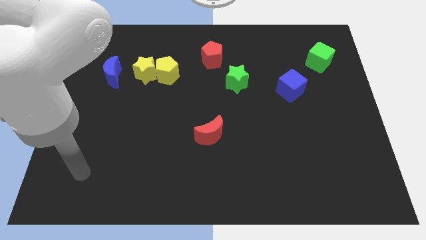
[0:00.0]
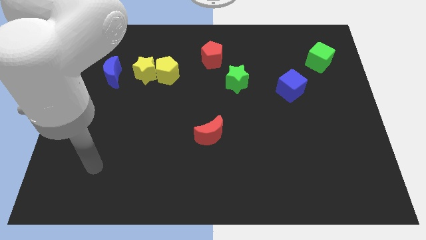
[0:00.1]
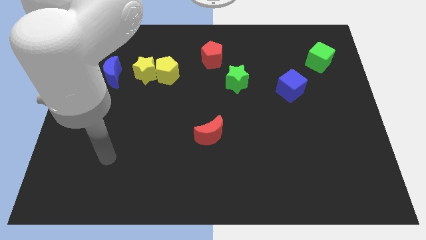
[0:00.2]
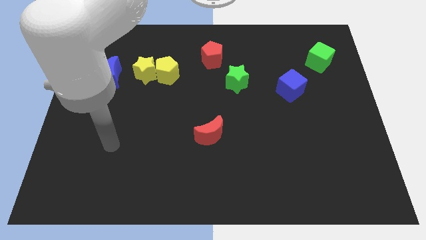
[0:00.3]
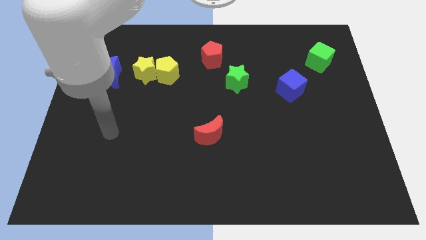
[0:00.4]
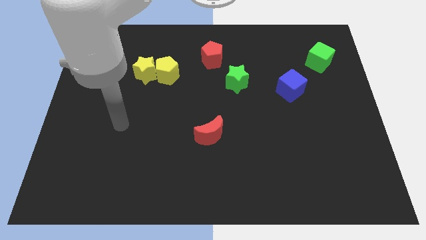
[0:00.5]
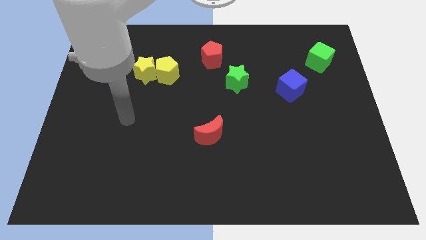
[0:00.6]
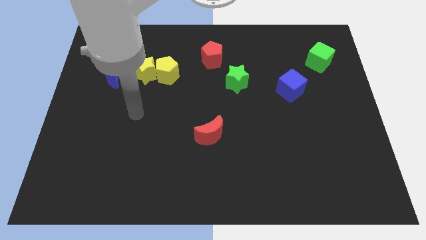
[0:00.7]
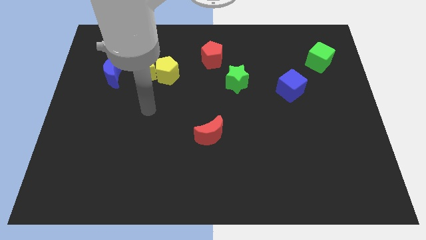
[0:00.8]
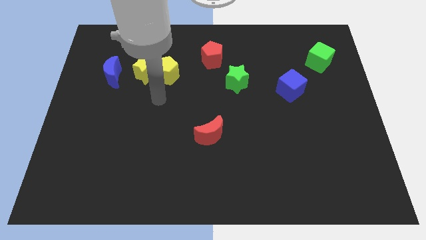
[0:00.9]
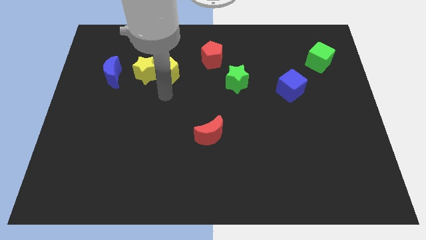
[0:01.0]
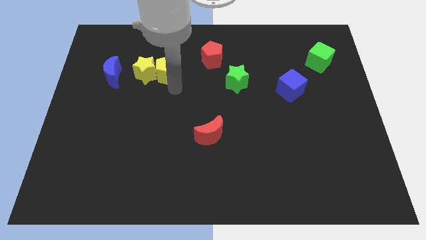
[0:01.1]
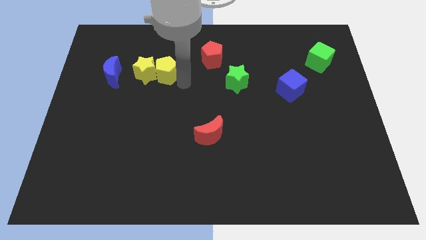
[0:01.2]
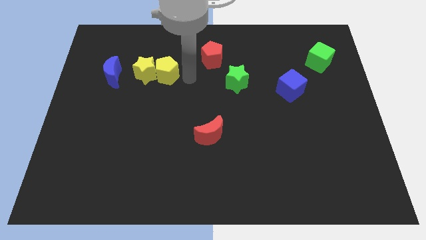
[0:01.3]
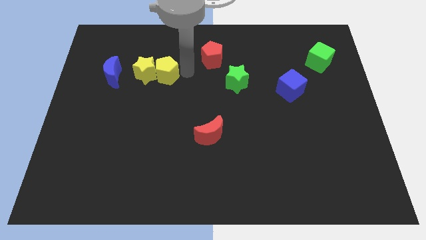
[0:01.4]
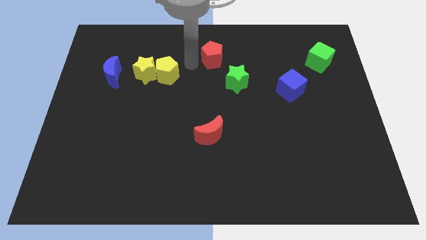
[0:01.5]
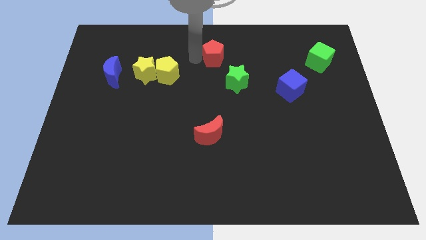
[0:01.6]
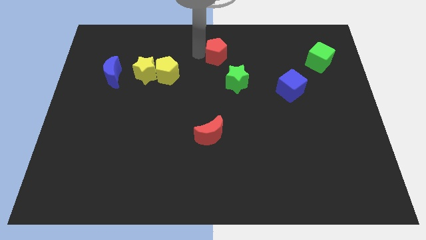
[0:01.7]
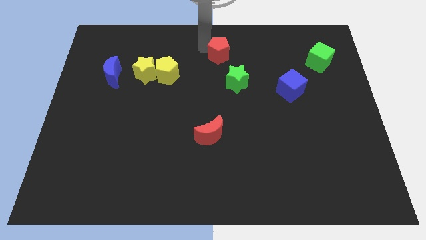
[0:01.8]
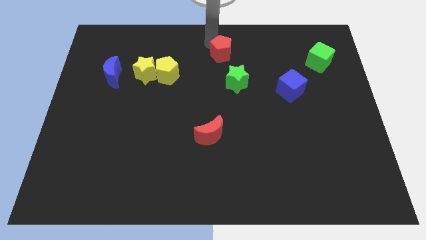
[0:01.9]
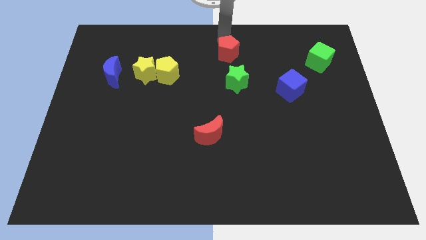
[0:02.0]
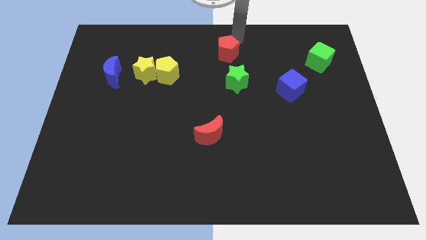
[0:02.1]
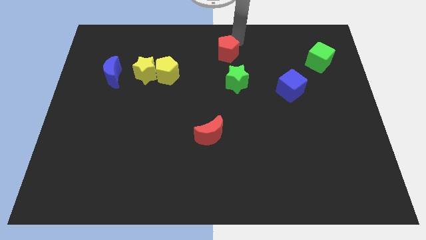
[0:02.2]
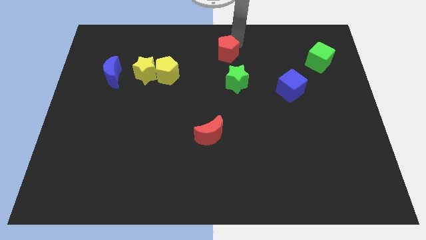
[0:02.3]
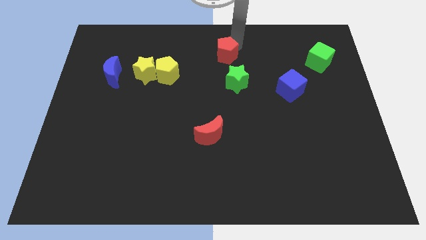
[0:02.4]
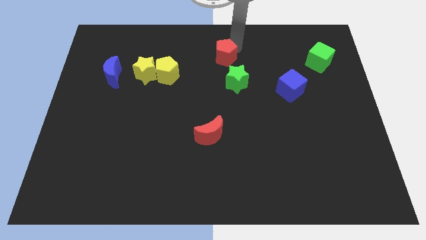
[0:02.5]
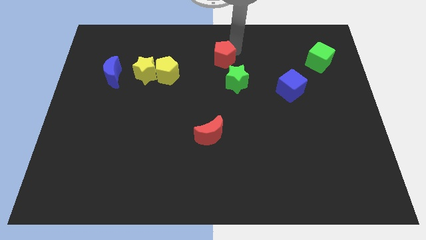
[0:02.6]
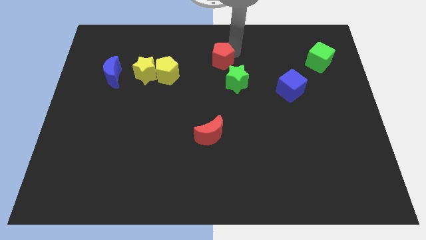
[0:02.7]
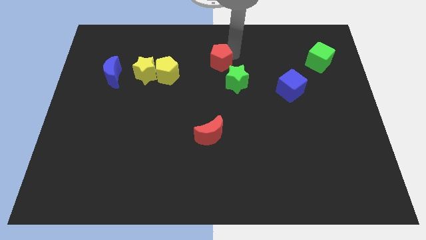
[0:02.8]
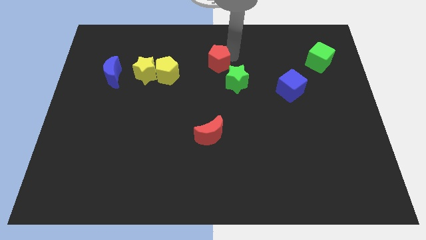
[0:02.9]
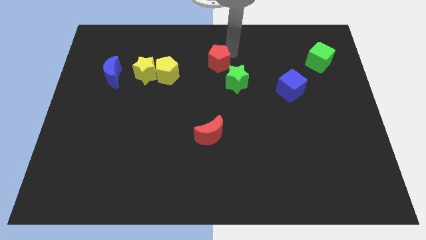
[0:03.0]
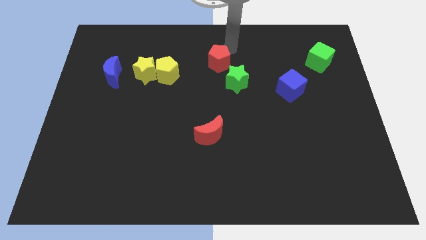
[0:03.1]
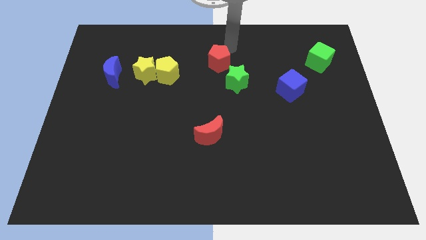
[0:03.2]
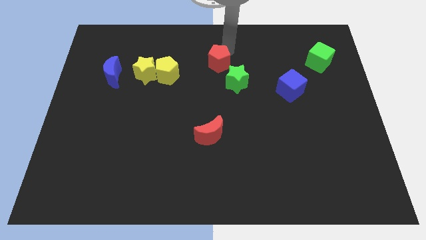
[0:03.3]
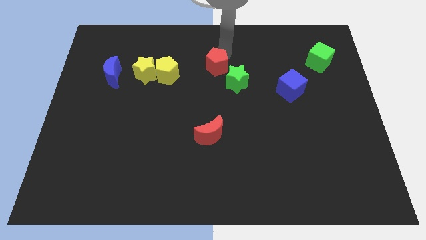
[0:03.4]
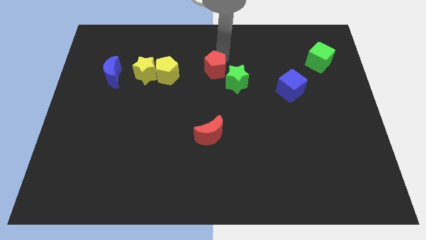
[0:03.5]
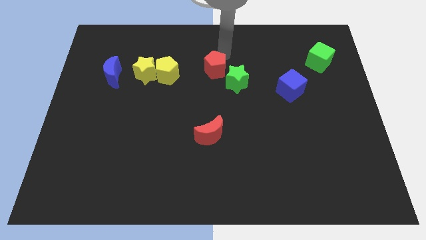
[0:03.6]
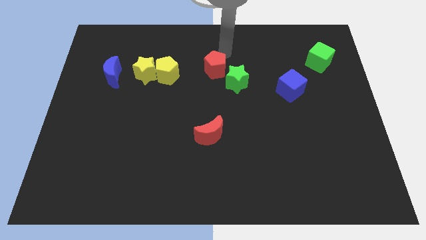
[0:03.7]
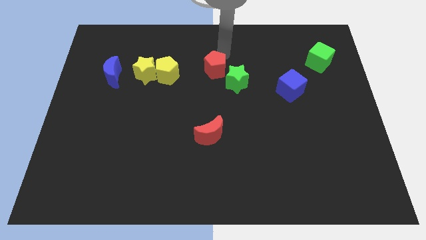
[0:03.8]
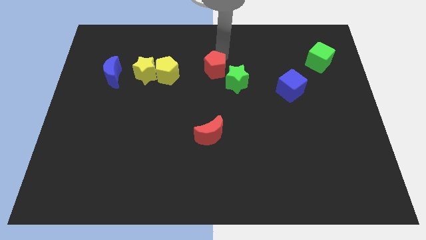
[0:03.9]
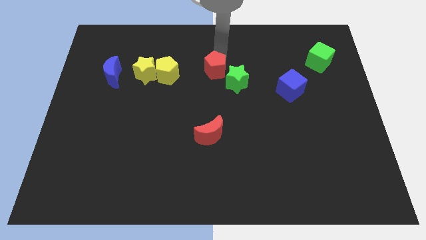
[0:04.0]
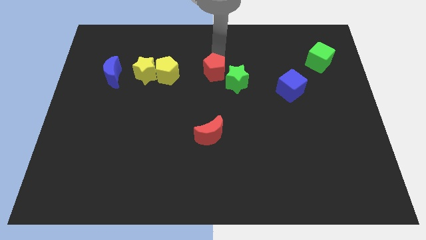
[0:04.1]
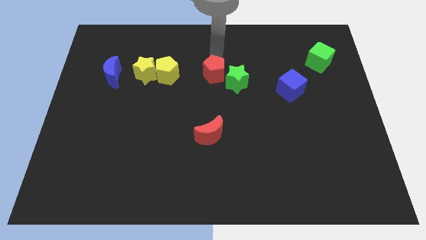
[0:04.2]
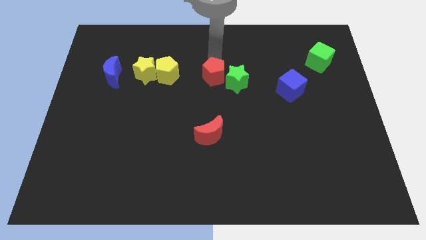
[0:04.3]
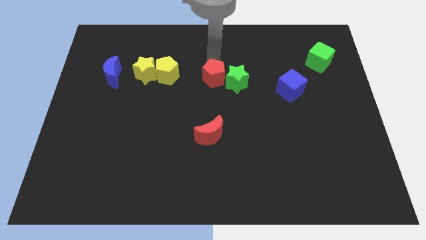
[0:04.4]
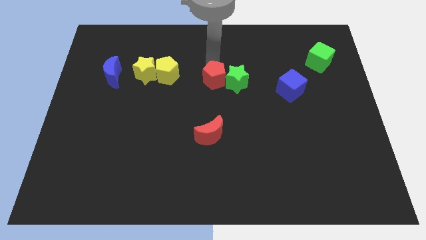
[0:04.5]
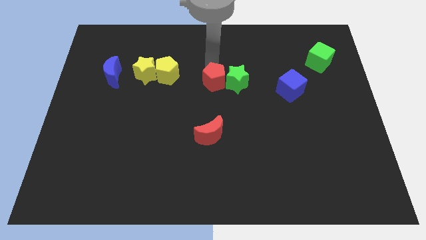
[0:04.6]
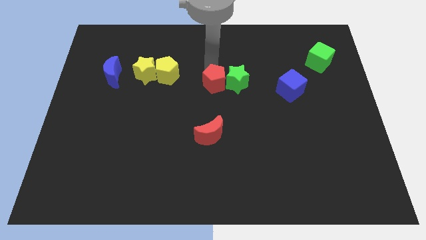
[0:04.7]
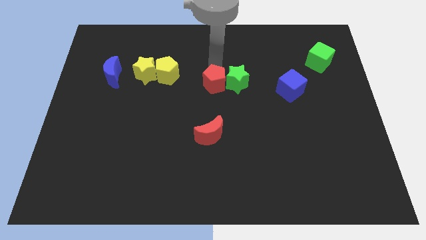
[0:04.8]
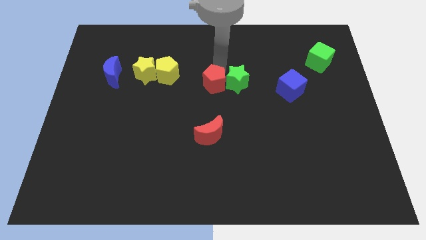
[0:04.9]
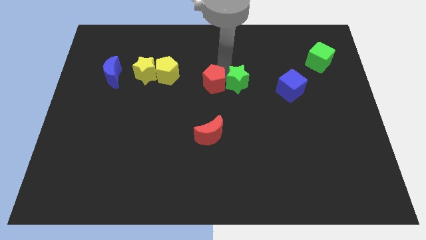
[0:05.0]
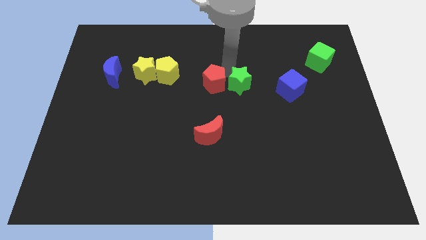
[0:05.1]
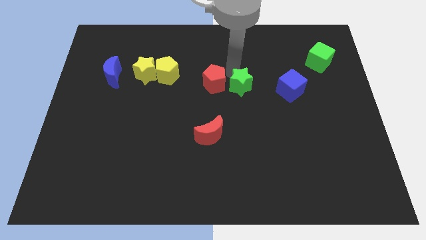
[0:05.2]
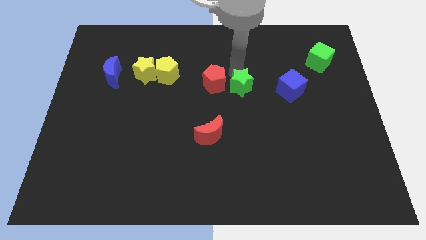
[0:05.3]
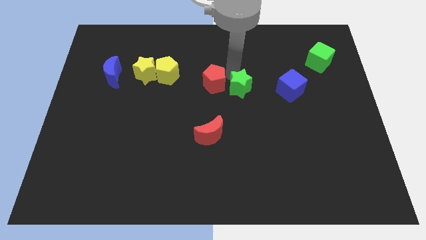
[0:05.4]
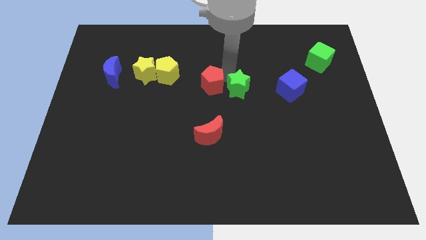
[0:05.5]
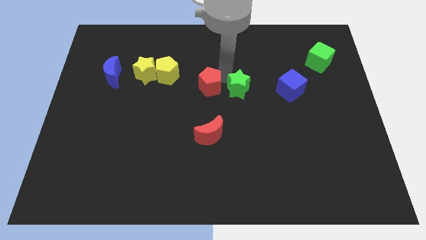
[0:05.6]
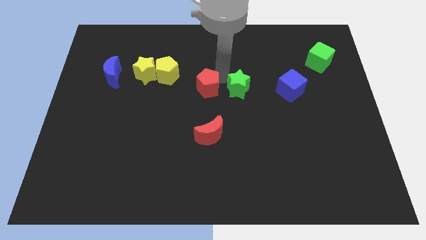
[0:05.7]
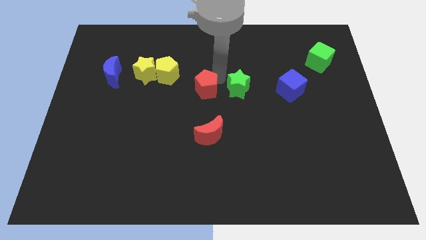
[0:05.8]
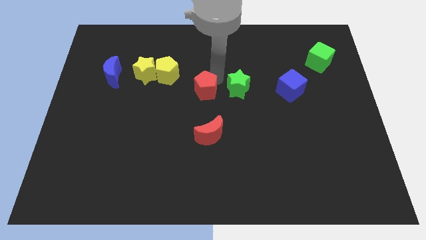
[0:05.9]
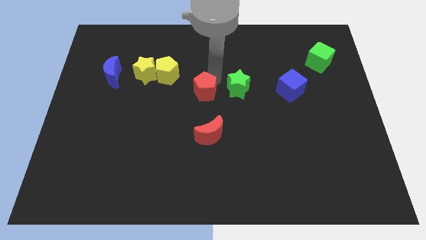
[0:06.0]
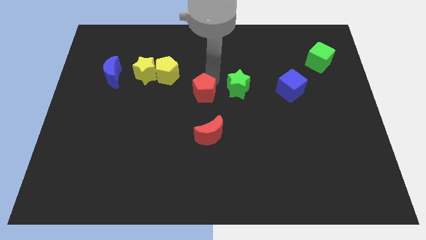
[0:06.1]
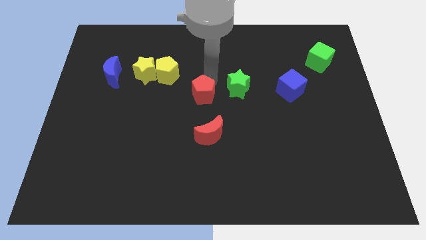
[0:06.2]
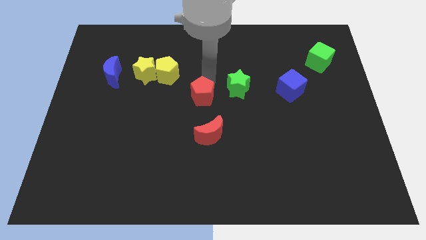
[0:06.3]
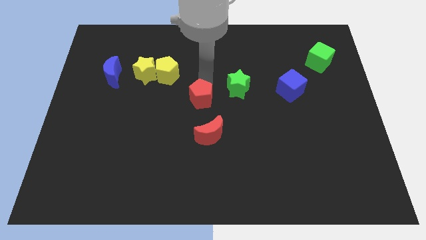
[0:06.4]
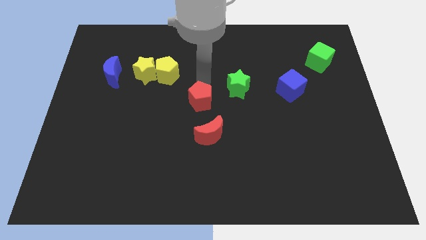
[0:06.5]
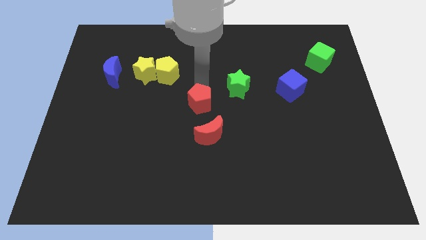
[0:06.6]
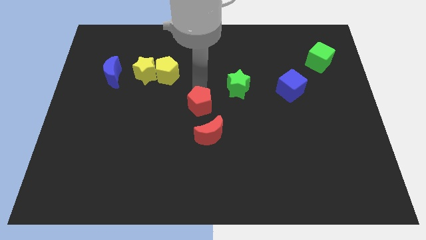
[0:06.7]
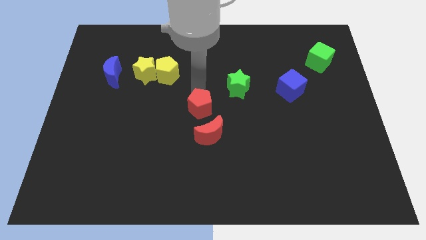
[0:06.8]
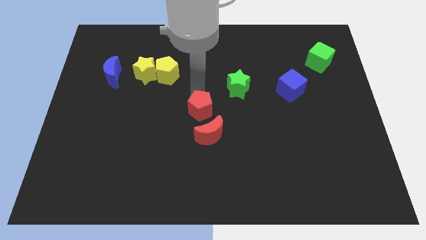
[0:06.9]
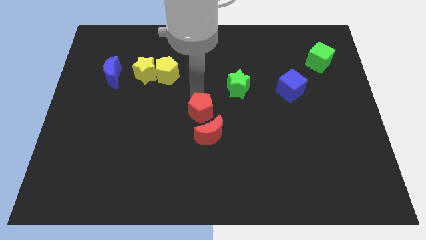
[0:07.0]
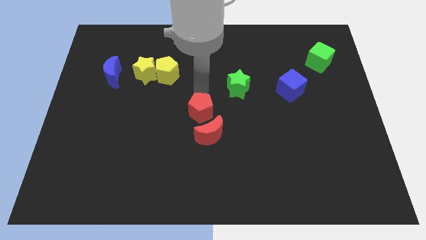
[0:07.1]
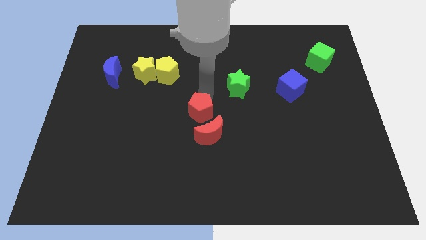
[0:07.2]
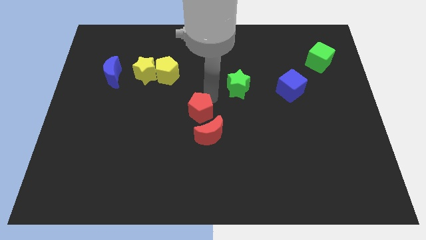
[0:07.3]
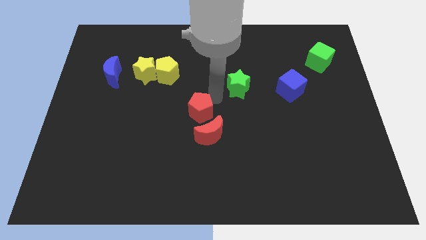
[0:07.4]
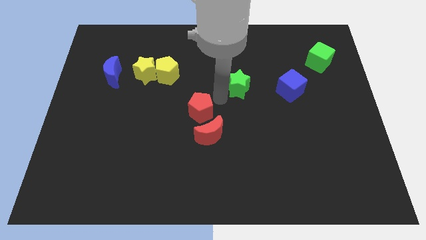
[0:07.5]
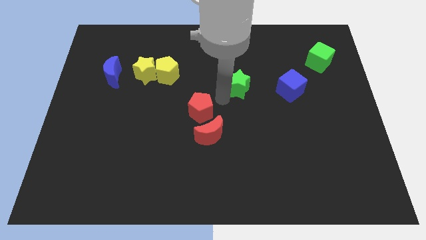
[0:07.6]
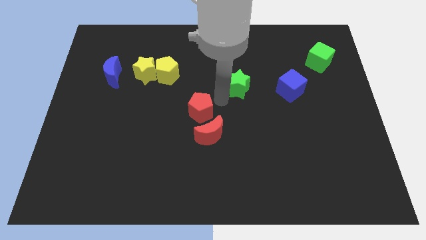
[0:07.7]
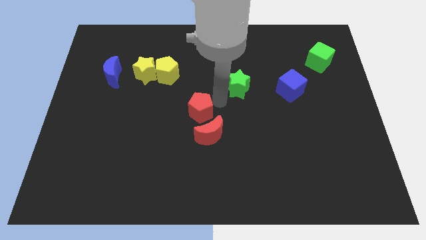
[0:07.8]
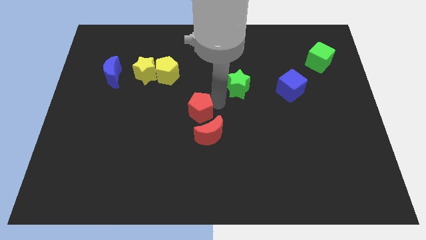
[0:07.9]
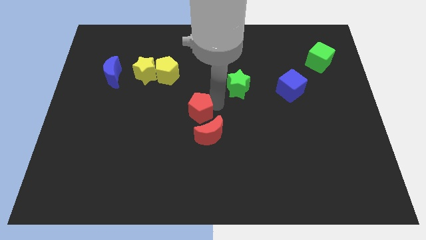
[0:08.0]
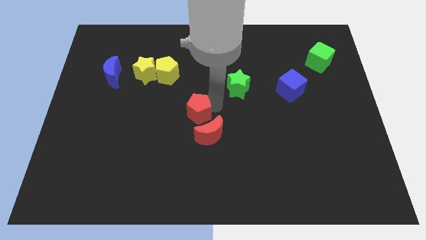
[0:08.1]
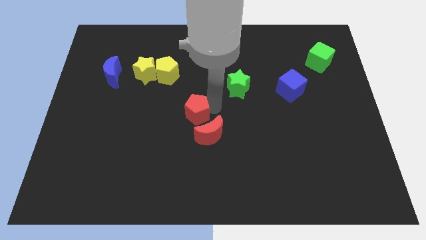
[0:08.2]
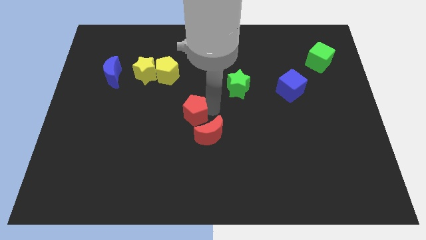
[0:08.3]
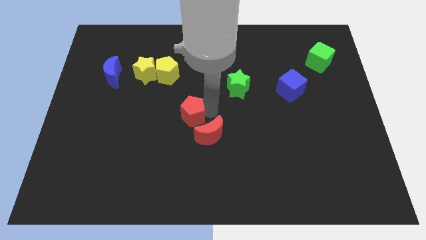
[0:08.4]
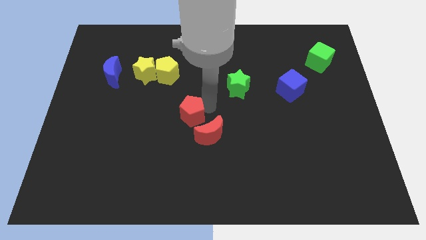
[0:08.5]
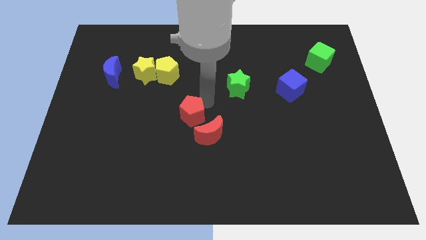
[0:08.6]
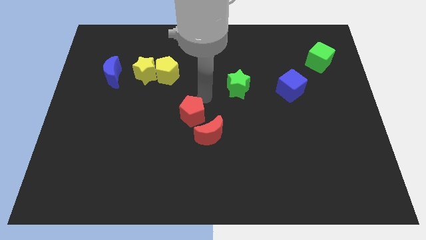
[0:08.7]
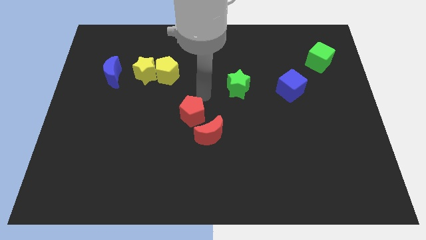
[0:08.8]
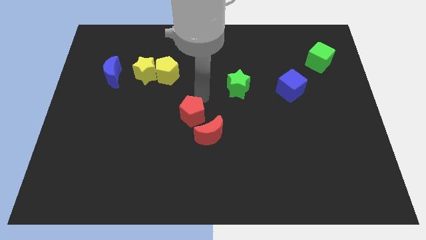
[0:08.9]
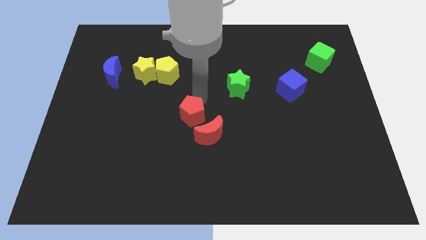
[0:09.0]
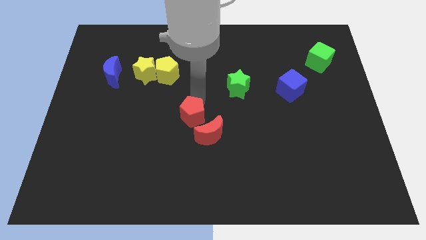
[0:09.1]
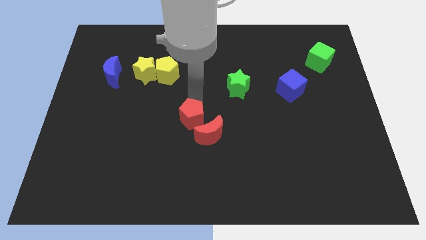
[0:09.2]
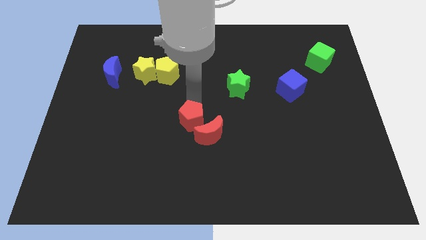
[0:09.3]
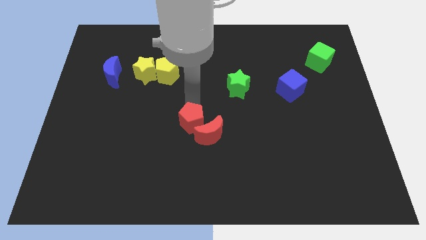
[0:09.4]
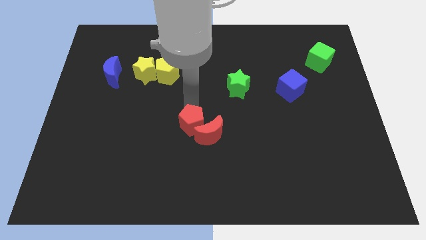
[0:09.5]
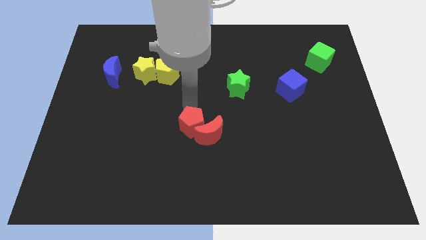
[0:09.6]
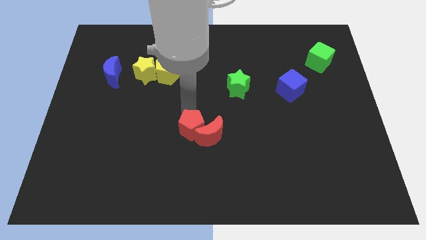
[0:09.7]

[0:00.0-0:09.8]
put the red pentagon to the bottom left of the red moon
